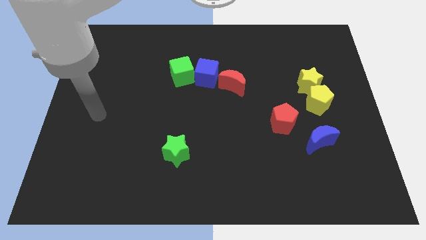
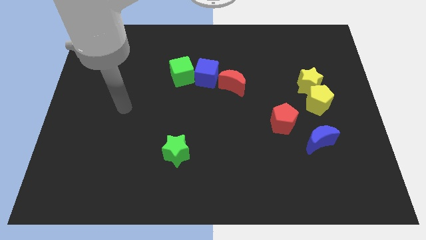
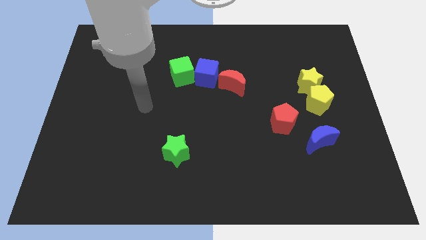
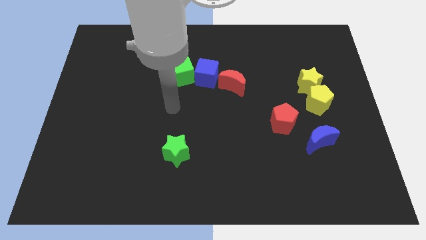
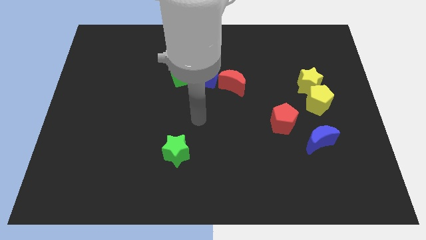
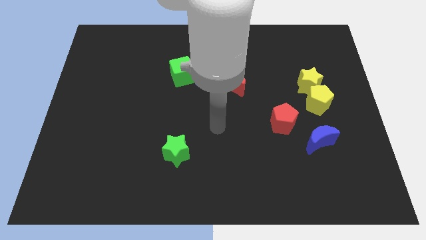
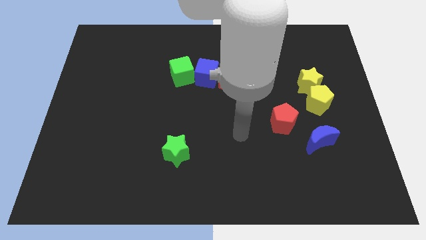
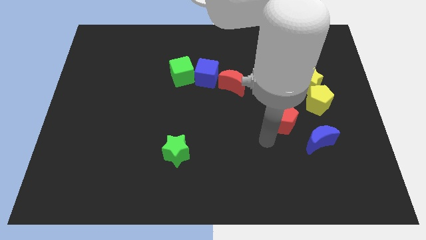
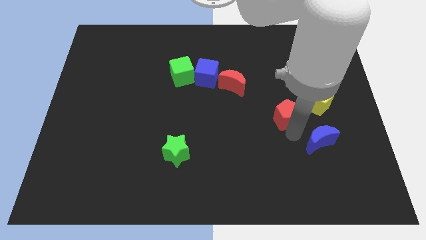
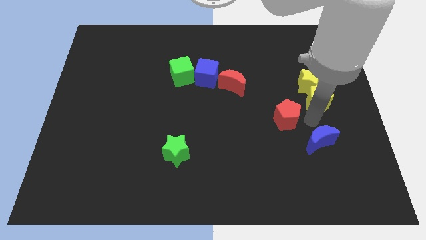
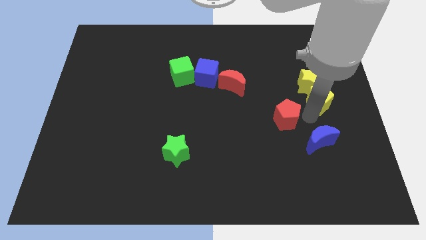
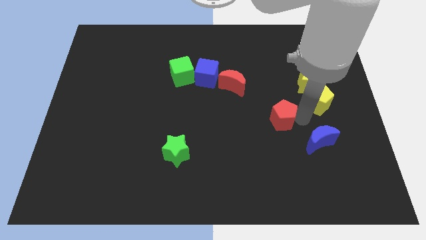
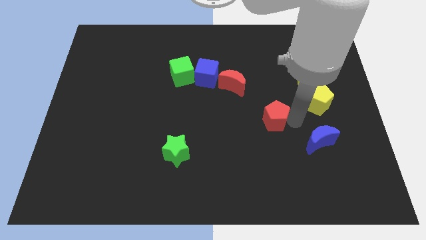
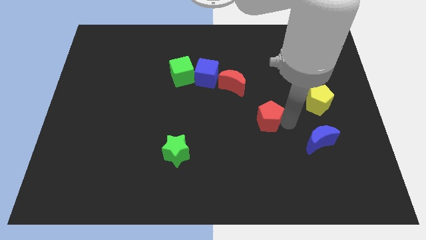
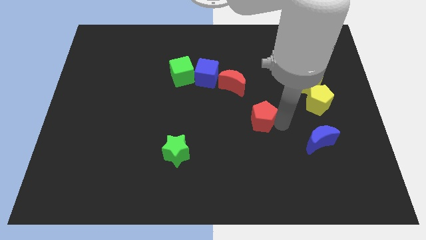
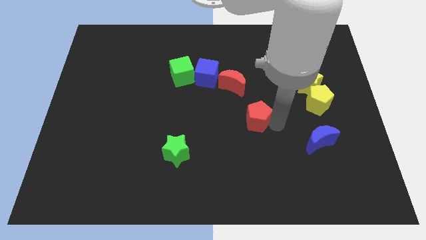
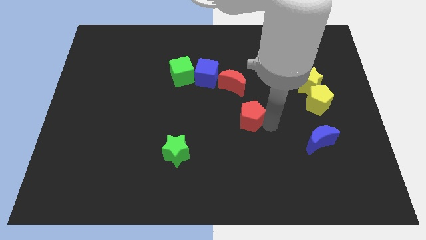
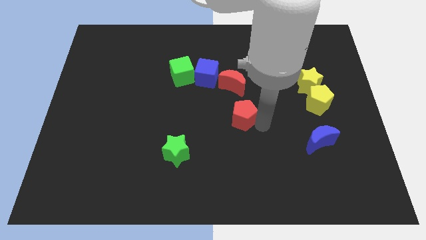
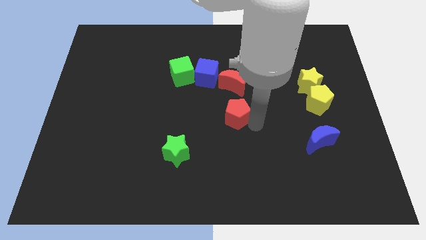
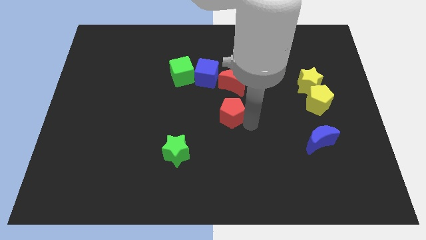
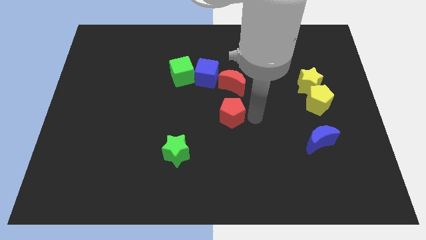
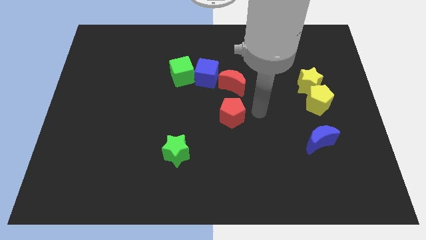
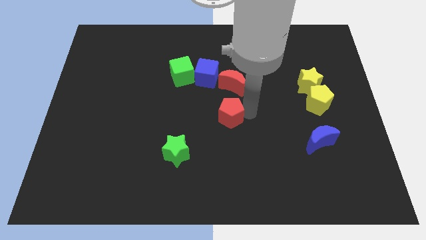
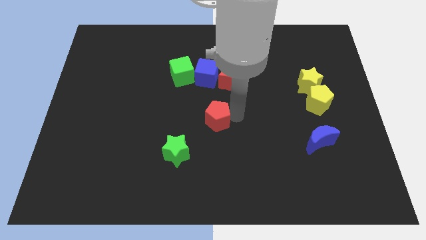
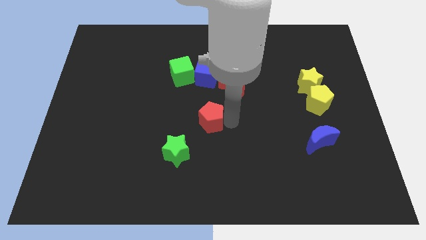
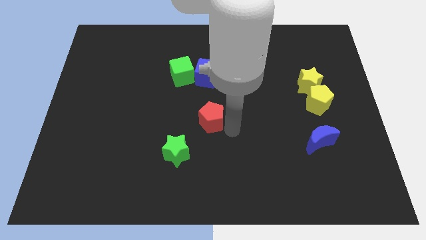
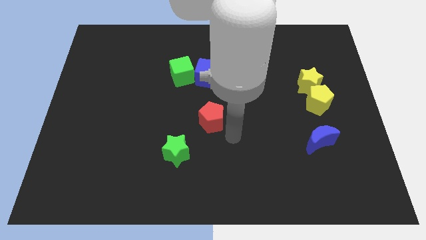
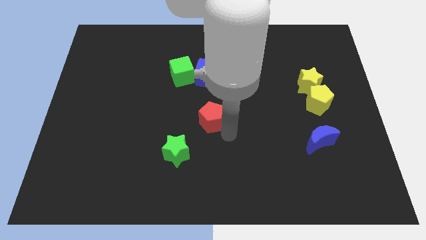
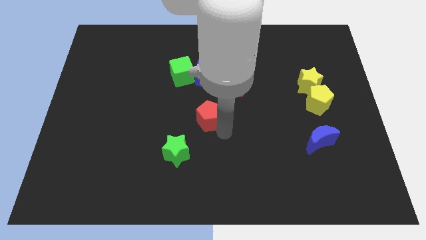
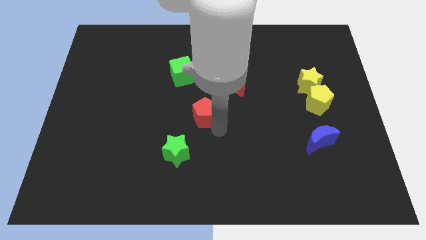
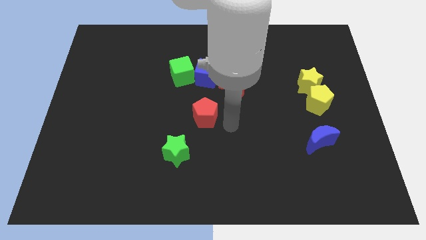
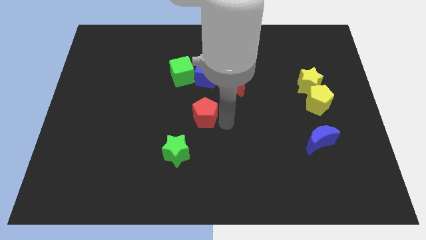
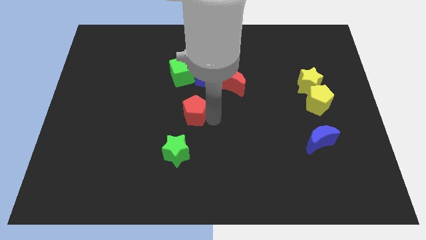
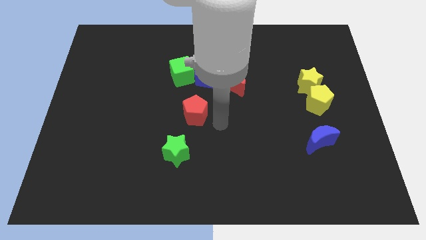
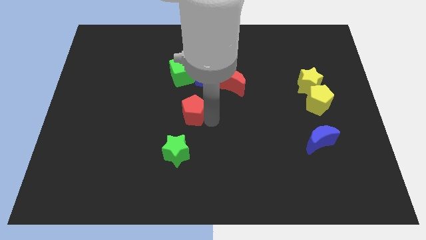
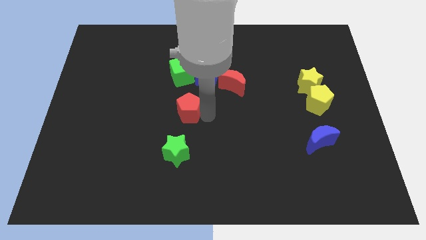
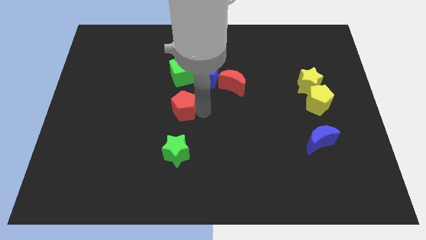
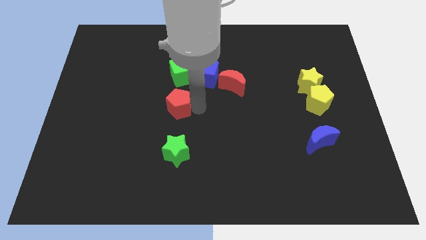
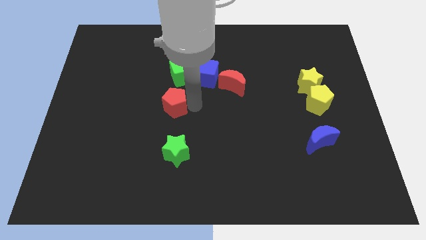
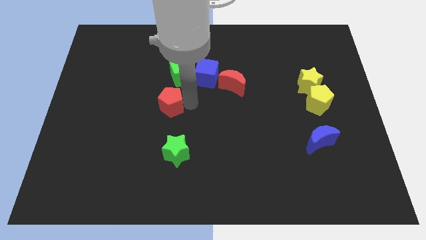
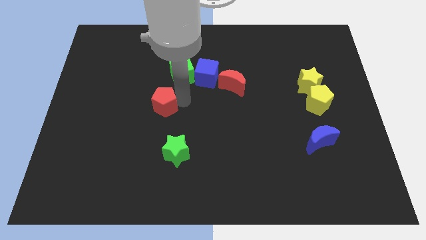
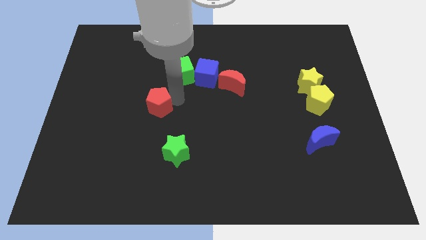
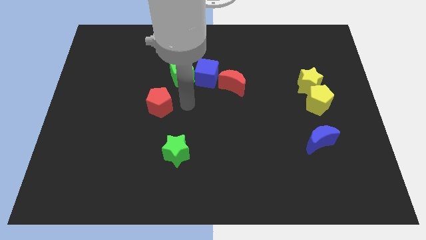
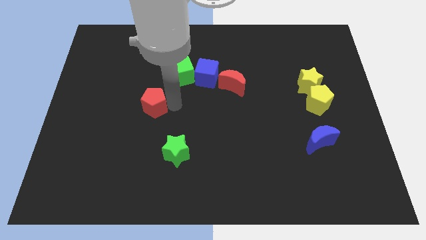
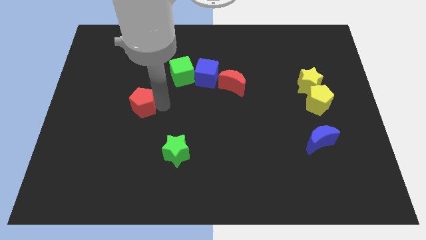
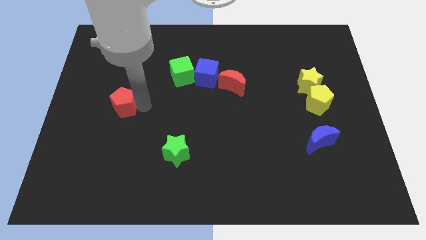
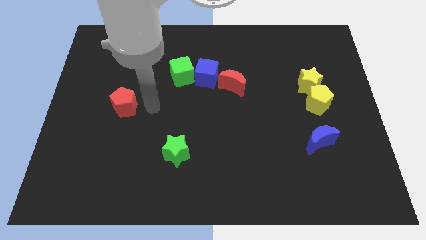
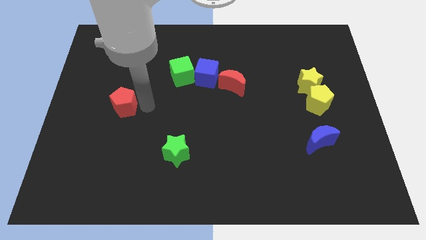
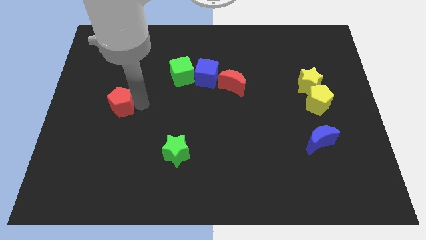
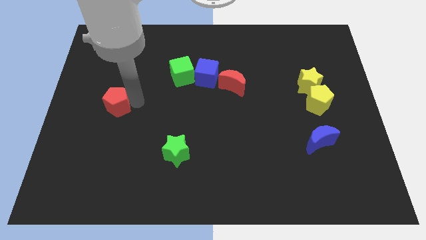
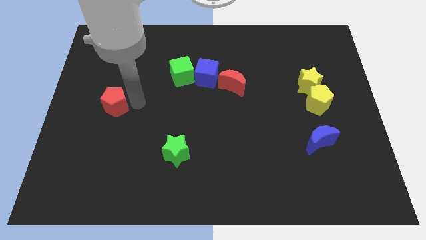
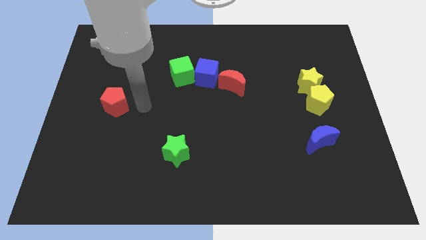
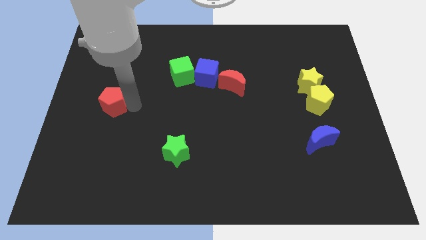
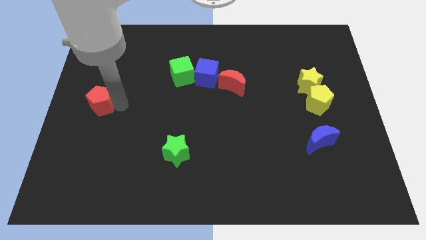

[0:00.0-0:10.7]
push the red pentagon to the left side of the board
